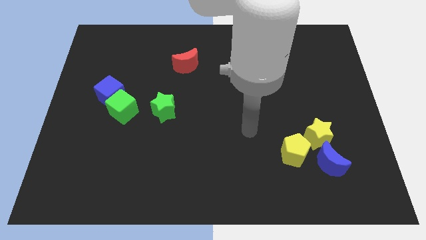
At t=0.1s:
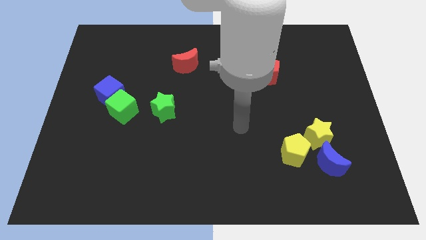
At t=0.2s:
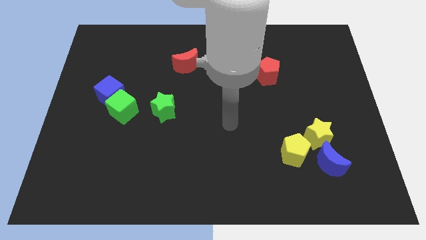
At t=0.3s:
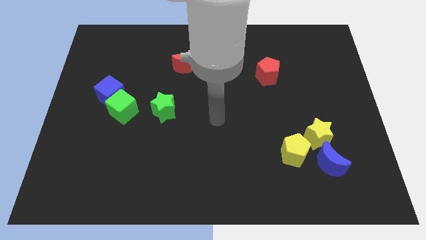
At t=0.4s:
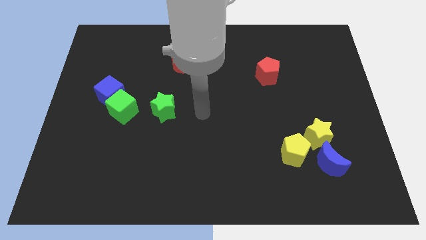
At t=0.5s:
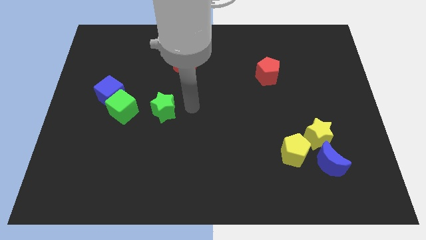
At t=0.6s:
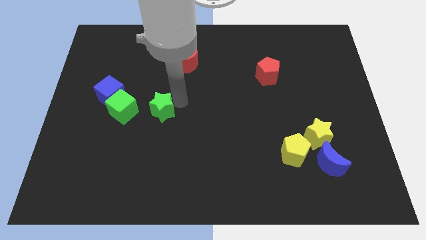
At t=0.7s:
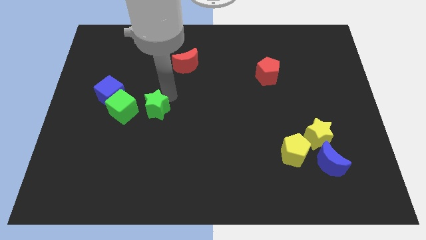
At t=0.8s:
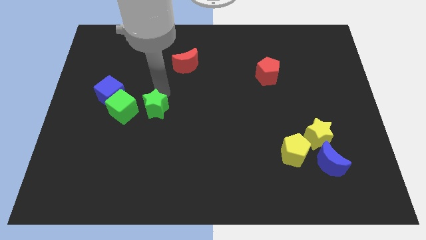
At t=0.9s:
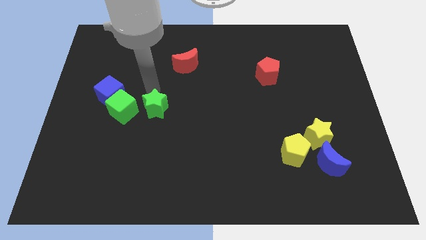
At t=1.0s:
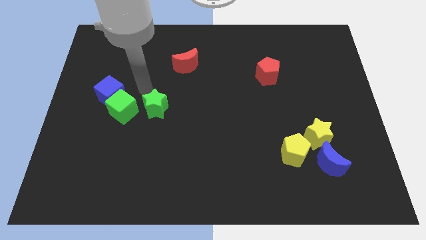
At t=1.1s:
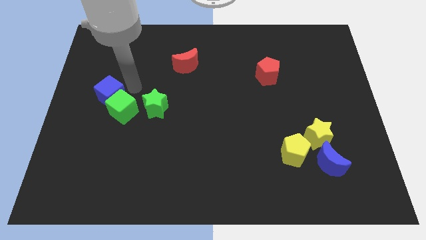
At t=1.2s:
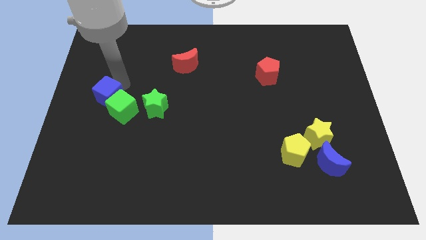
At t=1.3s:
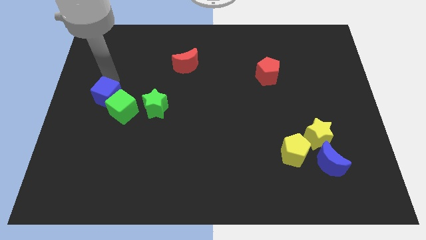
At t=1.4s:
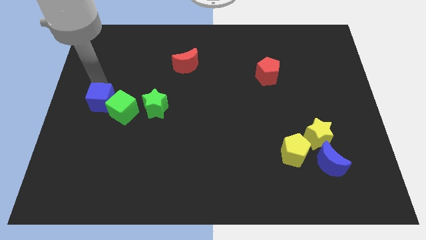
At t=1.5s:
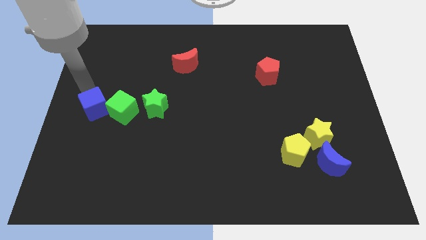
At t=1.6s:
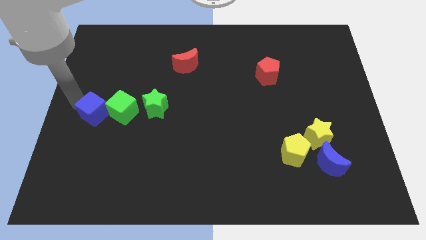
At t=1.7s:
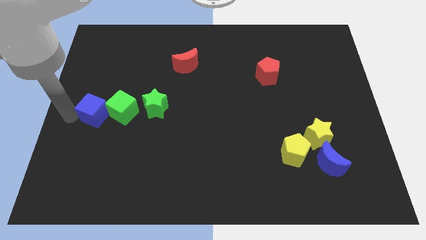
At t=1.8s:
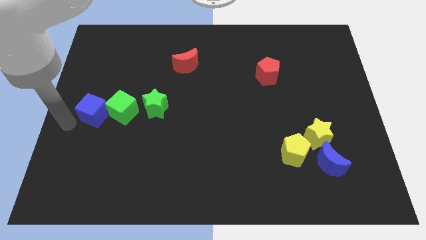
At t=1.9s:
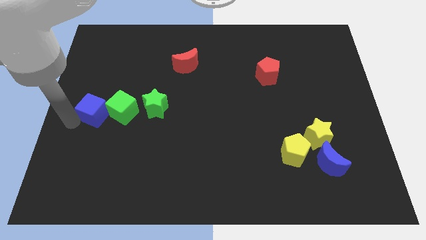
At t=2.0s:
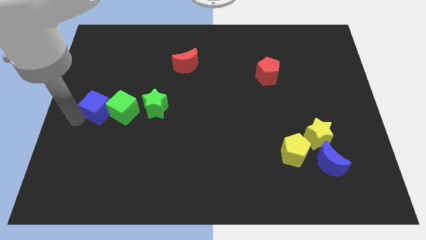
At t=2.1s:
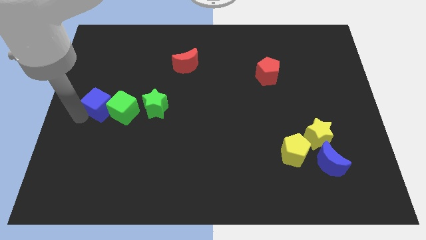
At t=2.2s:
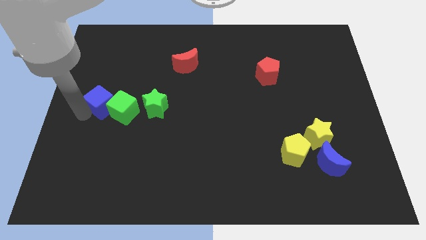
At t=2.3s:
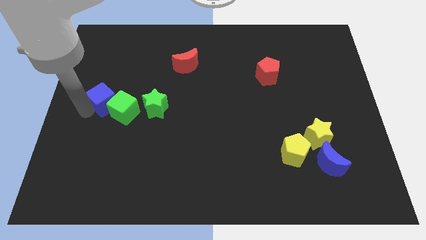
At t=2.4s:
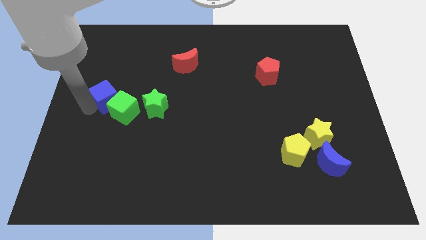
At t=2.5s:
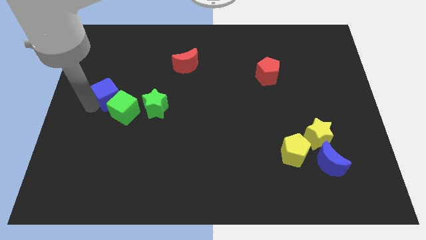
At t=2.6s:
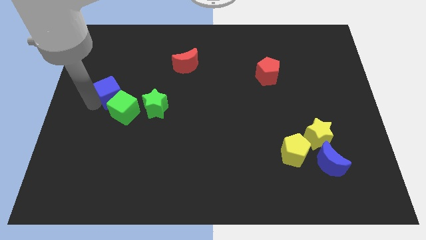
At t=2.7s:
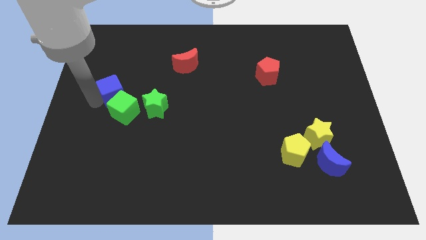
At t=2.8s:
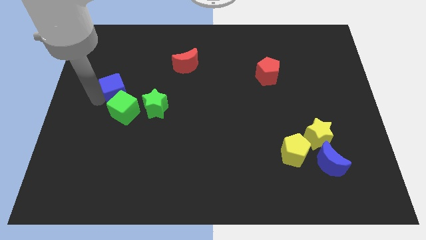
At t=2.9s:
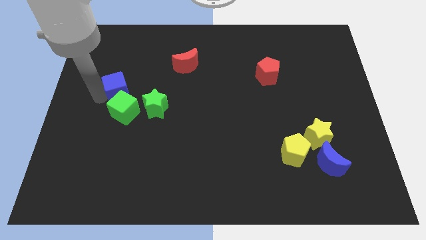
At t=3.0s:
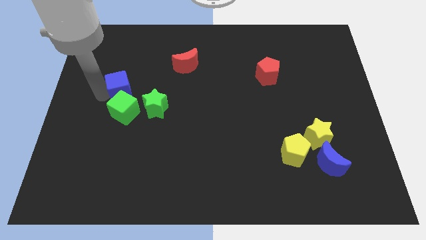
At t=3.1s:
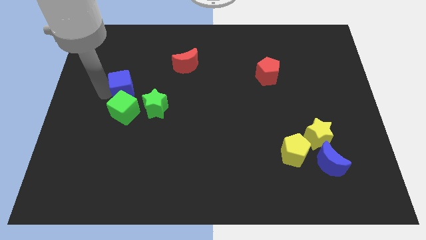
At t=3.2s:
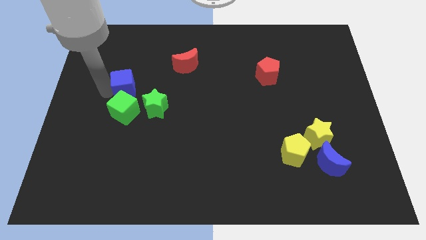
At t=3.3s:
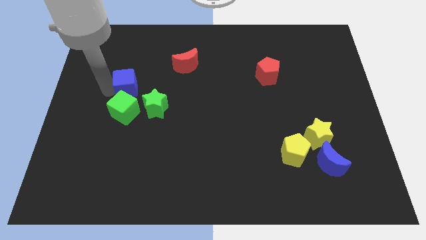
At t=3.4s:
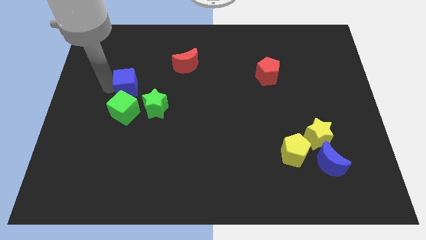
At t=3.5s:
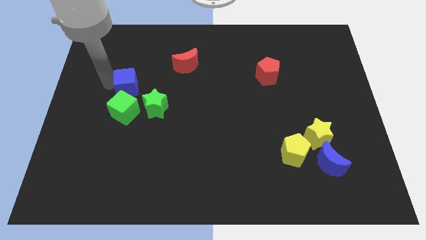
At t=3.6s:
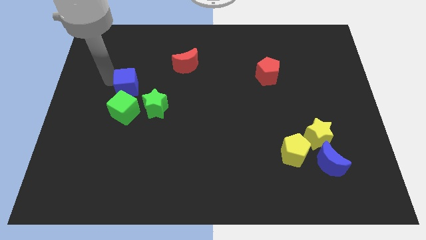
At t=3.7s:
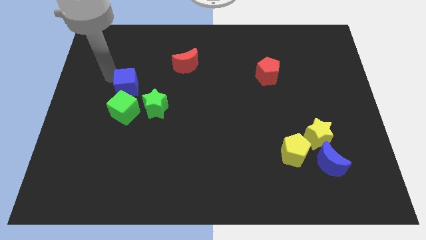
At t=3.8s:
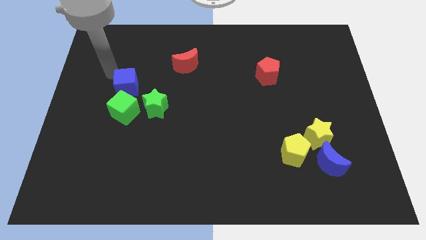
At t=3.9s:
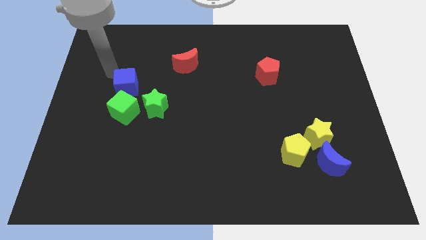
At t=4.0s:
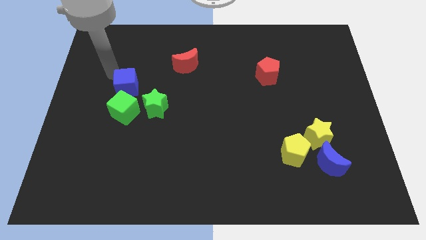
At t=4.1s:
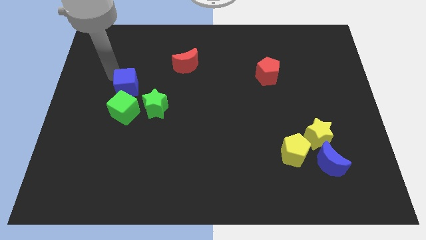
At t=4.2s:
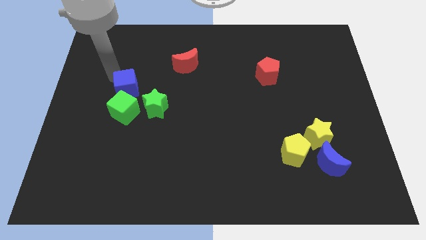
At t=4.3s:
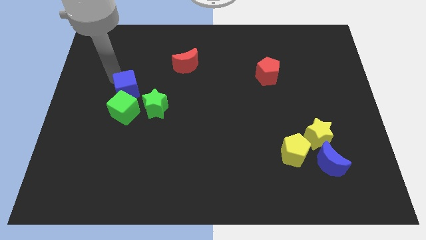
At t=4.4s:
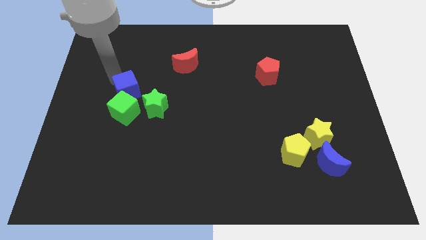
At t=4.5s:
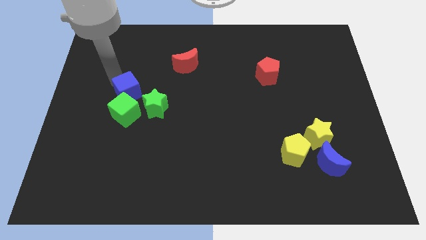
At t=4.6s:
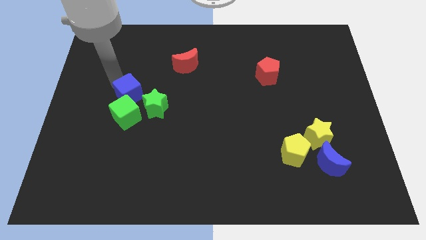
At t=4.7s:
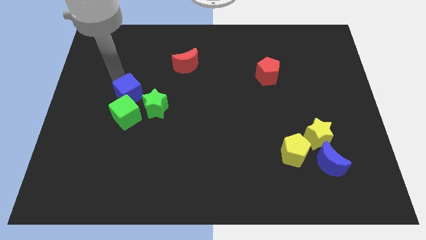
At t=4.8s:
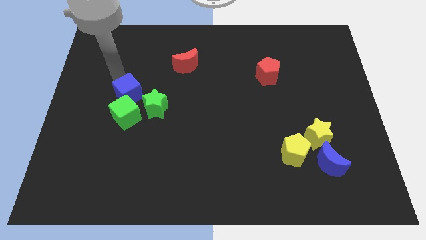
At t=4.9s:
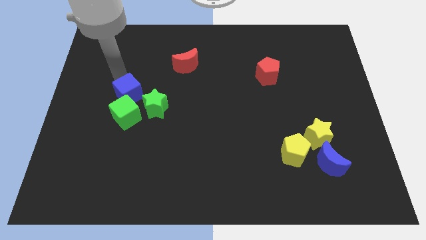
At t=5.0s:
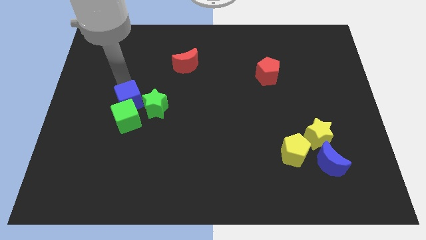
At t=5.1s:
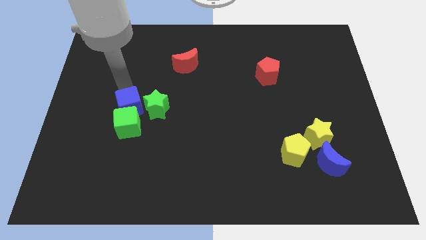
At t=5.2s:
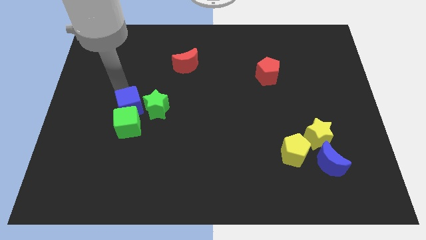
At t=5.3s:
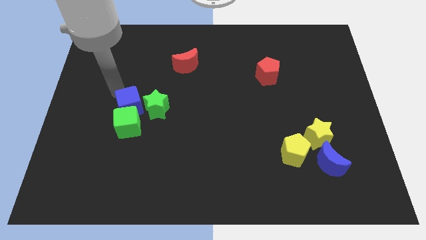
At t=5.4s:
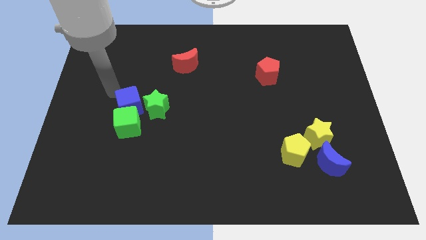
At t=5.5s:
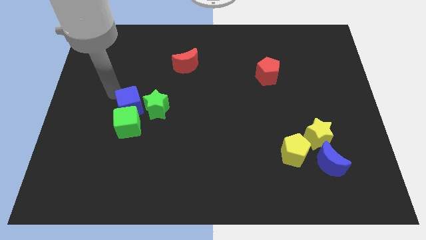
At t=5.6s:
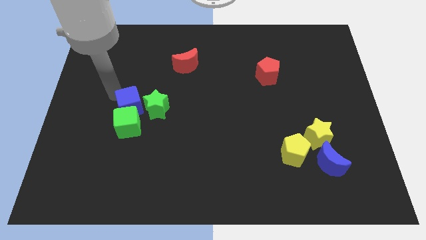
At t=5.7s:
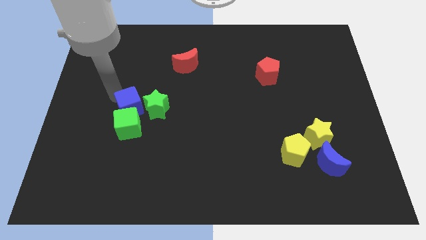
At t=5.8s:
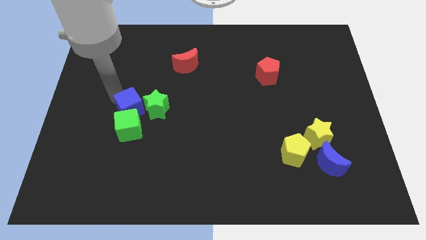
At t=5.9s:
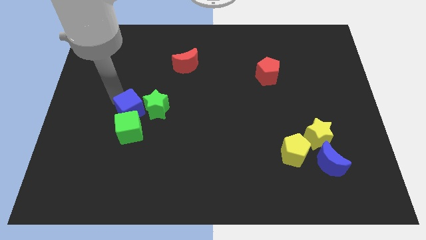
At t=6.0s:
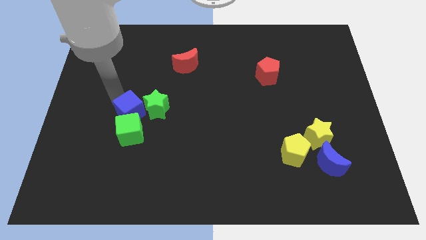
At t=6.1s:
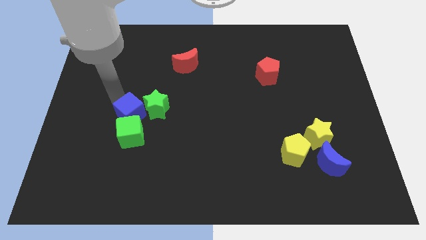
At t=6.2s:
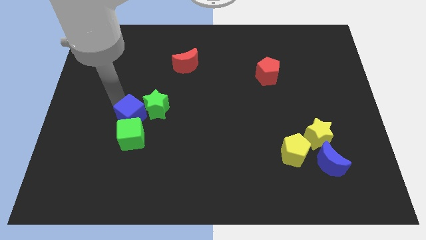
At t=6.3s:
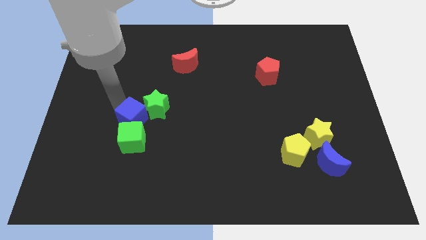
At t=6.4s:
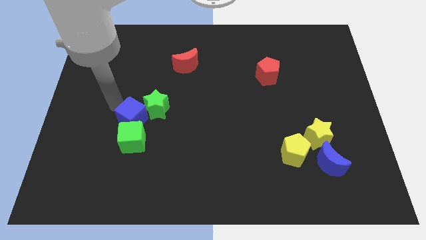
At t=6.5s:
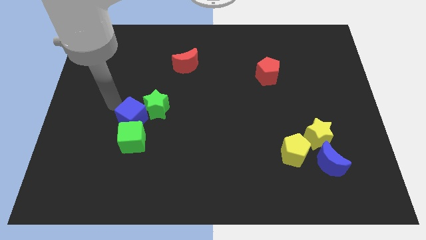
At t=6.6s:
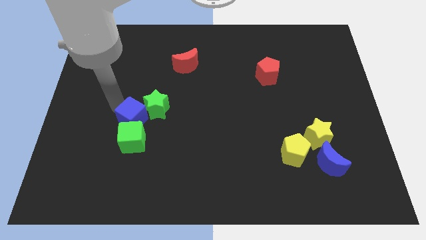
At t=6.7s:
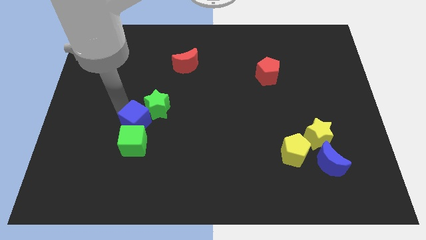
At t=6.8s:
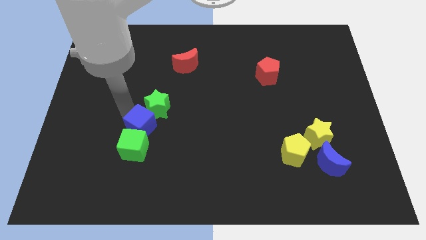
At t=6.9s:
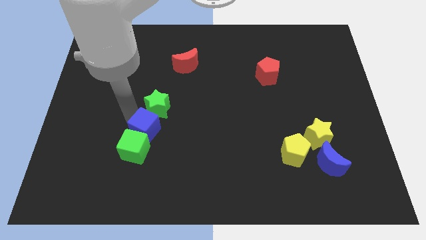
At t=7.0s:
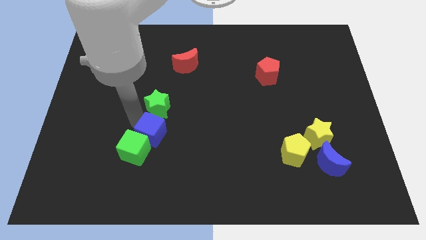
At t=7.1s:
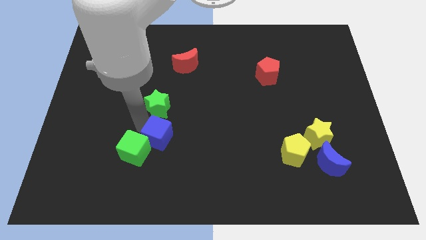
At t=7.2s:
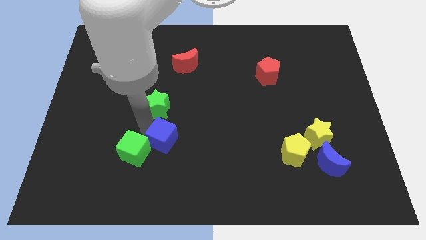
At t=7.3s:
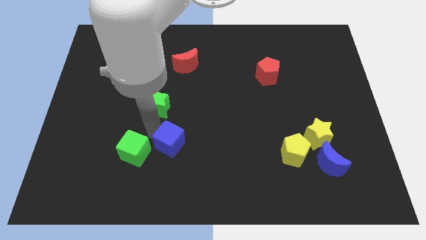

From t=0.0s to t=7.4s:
slide the blue cube diagonally down and right

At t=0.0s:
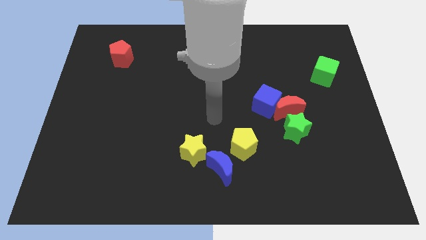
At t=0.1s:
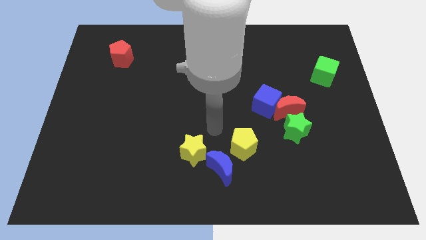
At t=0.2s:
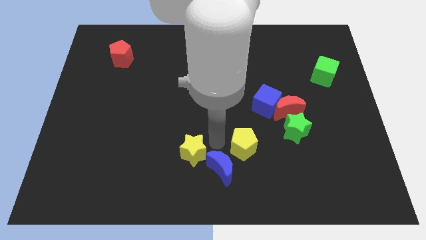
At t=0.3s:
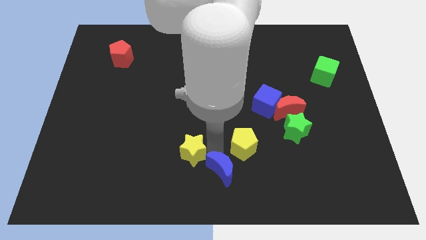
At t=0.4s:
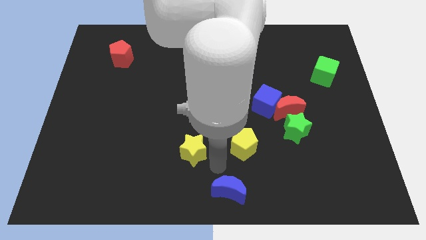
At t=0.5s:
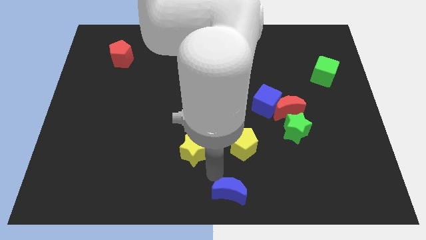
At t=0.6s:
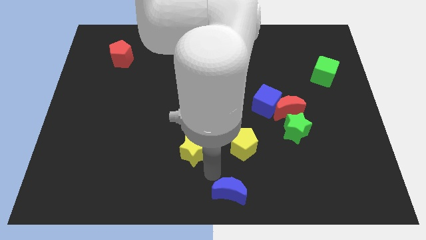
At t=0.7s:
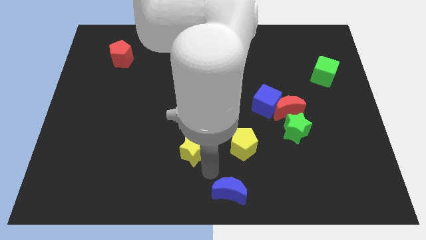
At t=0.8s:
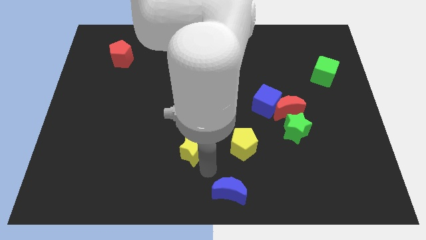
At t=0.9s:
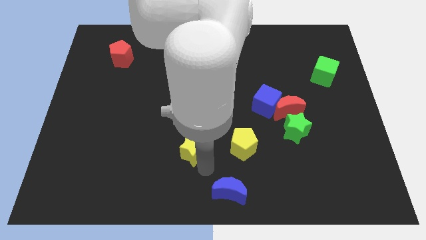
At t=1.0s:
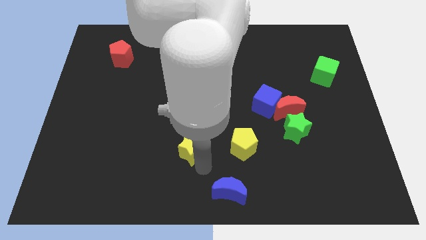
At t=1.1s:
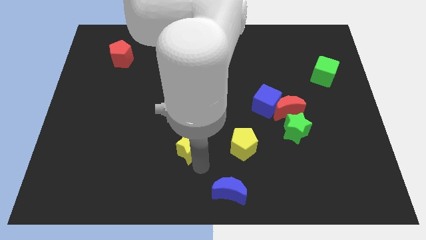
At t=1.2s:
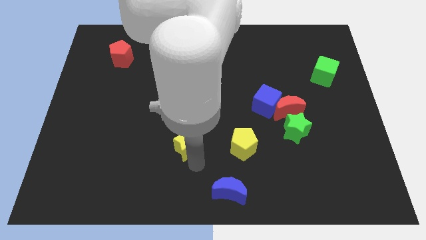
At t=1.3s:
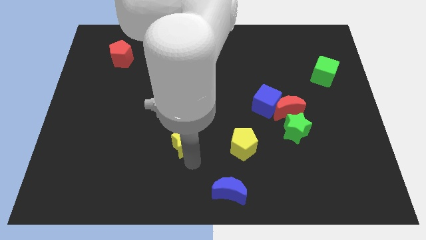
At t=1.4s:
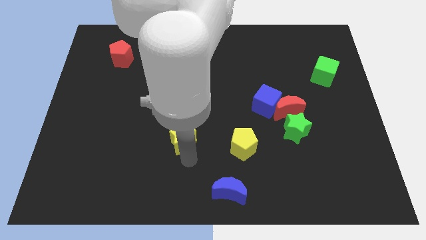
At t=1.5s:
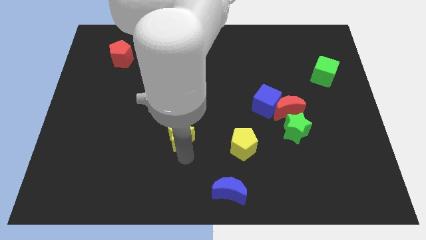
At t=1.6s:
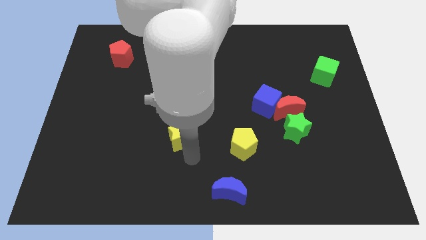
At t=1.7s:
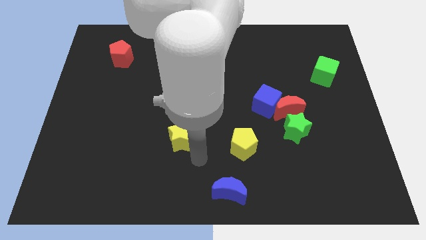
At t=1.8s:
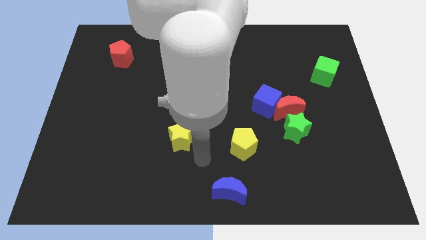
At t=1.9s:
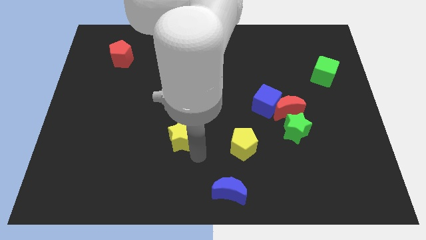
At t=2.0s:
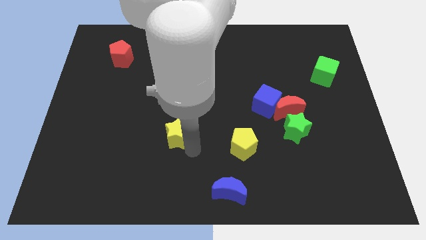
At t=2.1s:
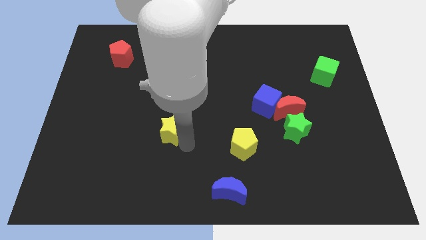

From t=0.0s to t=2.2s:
slide the yellow star diagonally upwards and to the left slightly
